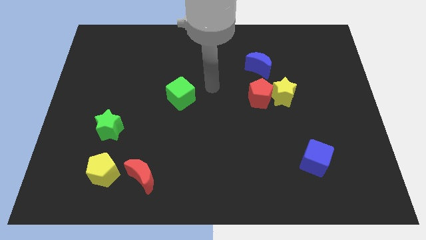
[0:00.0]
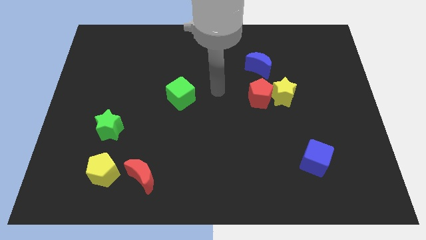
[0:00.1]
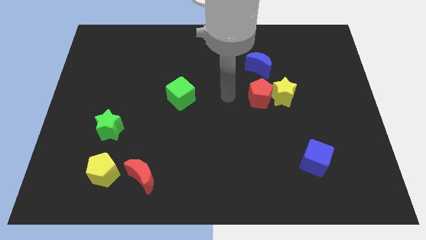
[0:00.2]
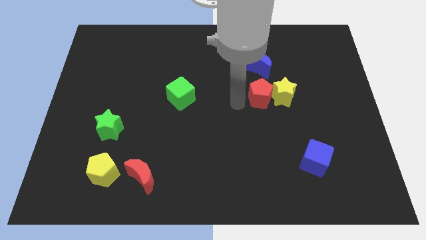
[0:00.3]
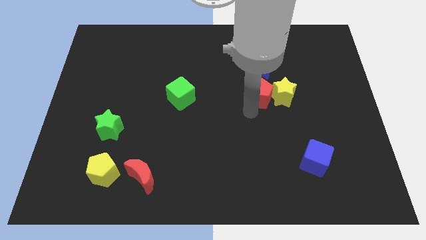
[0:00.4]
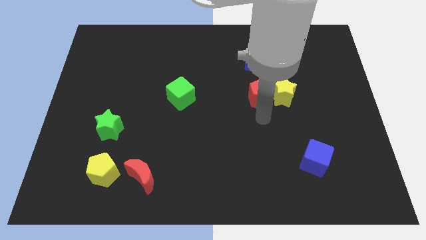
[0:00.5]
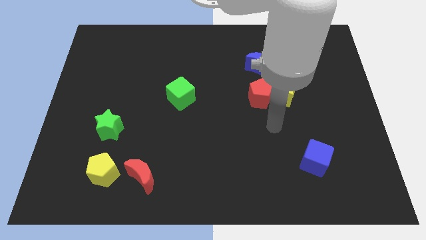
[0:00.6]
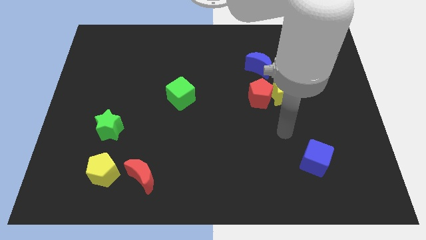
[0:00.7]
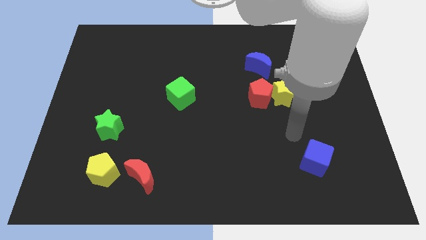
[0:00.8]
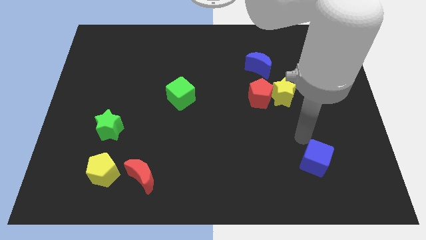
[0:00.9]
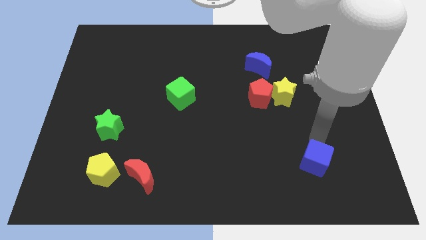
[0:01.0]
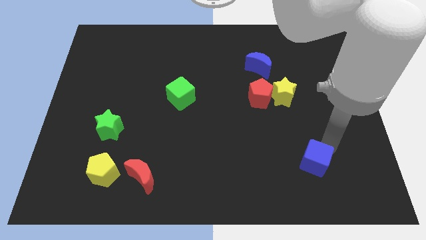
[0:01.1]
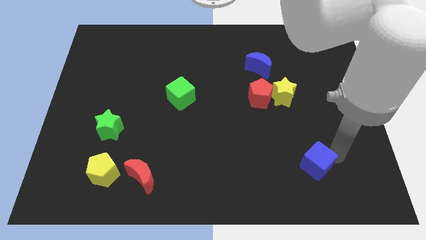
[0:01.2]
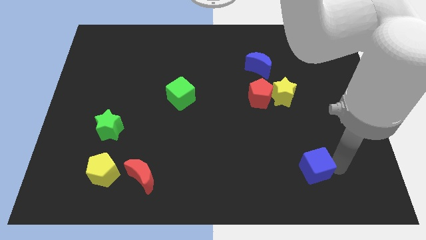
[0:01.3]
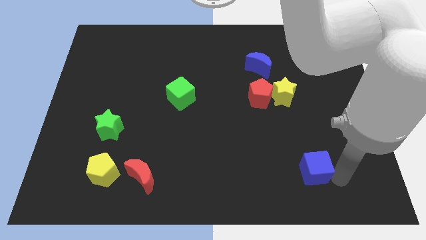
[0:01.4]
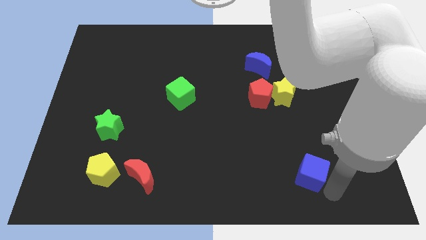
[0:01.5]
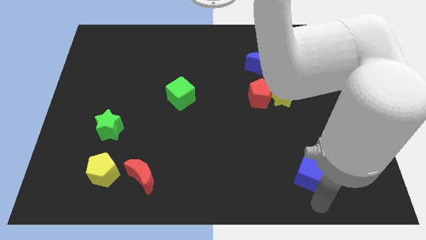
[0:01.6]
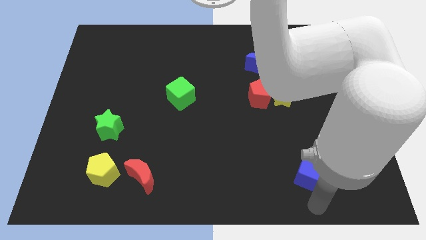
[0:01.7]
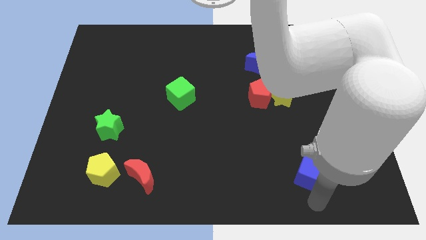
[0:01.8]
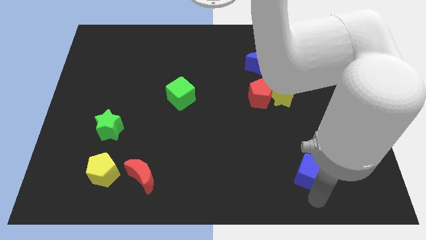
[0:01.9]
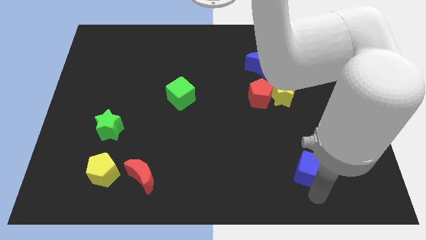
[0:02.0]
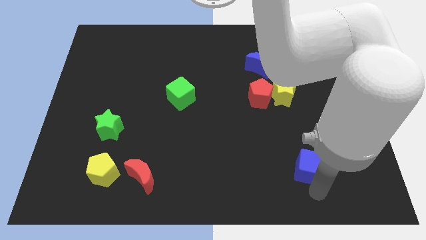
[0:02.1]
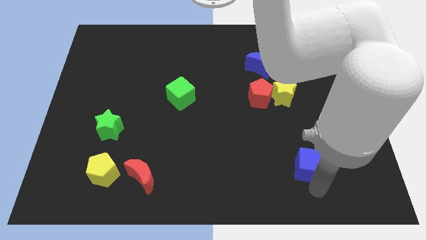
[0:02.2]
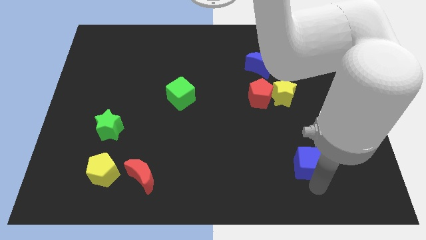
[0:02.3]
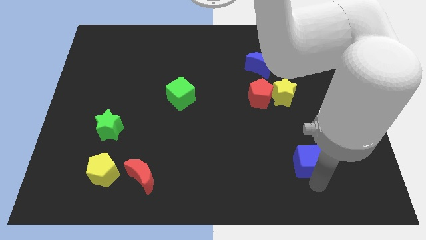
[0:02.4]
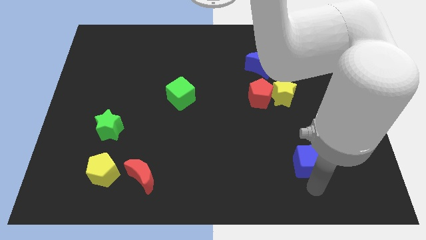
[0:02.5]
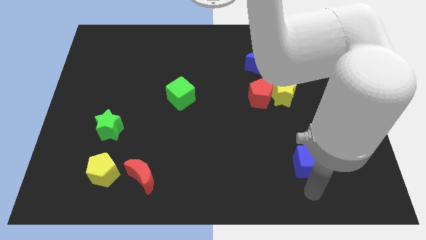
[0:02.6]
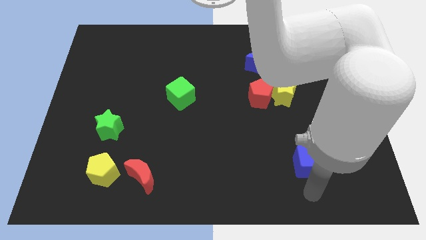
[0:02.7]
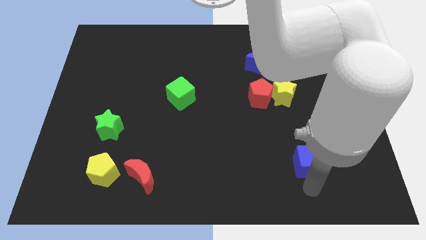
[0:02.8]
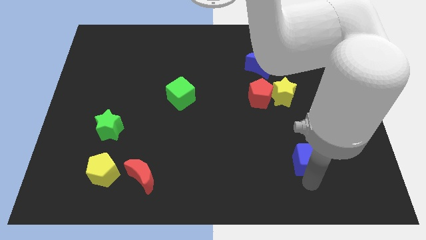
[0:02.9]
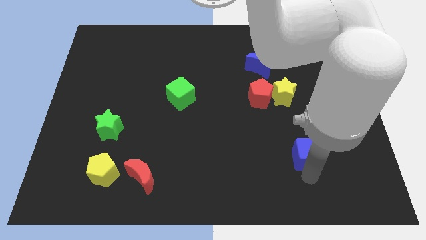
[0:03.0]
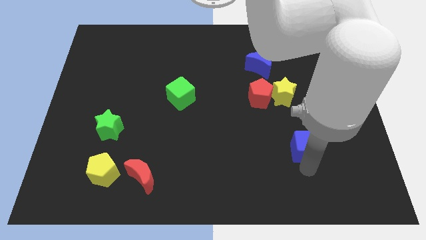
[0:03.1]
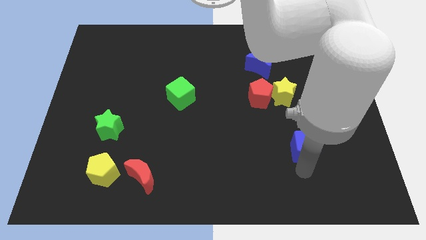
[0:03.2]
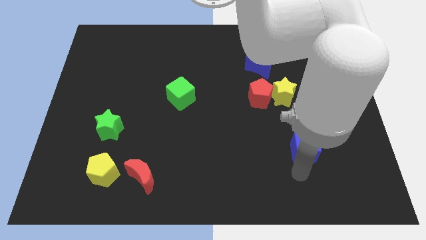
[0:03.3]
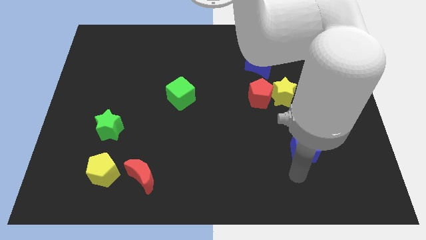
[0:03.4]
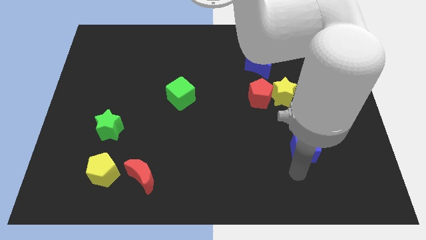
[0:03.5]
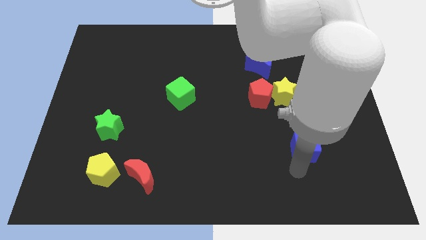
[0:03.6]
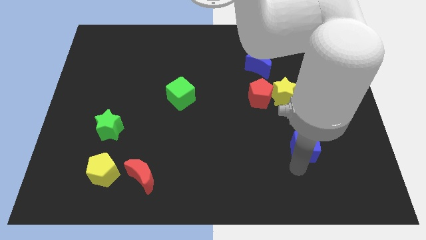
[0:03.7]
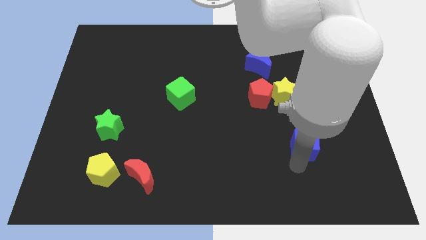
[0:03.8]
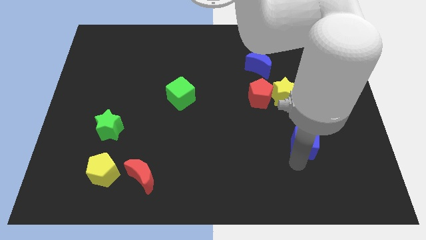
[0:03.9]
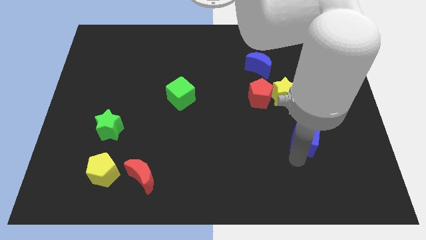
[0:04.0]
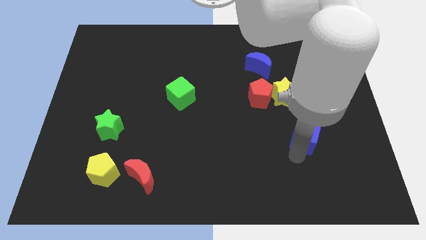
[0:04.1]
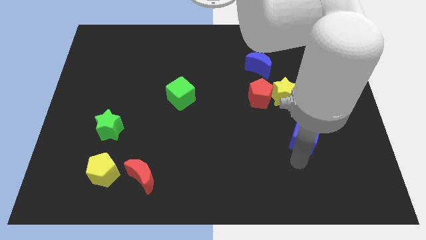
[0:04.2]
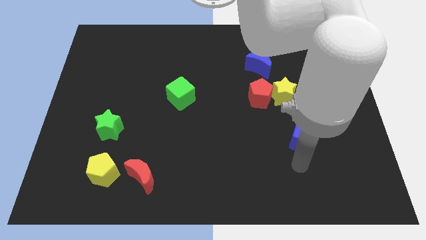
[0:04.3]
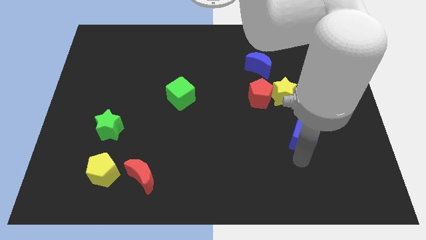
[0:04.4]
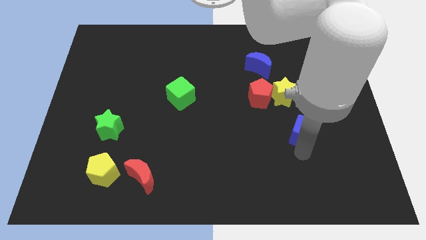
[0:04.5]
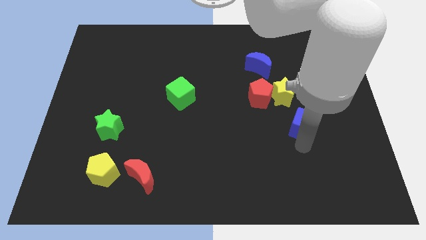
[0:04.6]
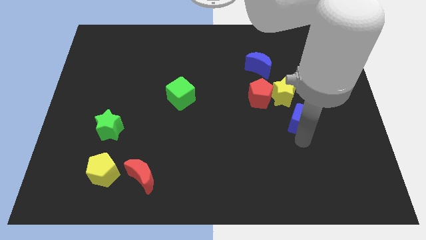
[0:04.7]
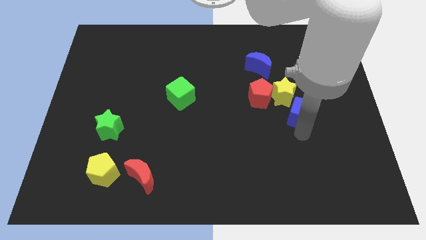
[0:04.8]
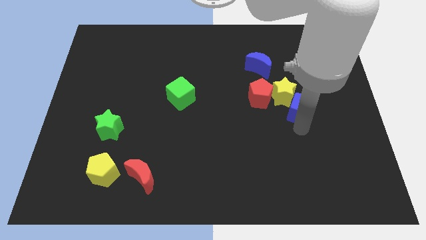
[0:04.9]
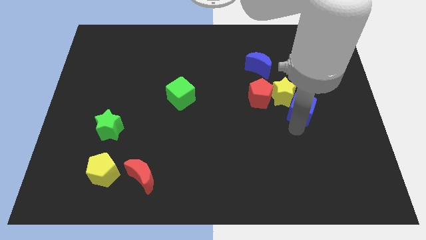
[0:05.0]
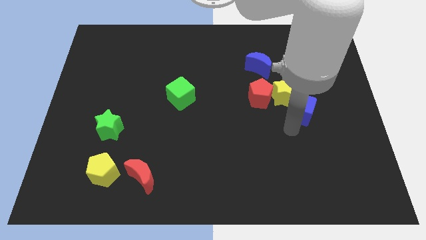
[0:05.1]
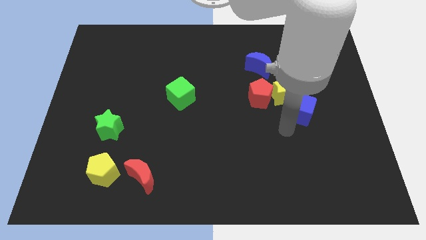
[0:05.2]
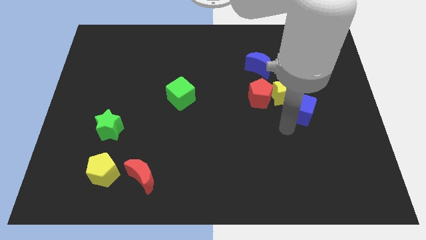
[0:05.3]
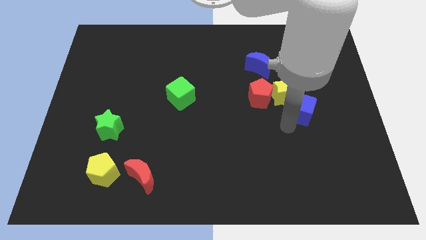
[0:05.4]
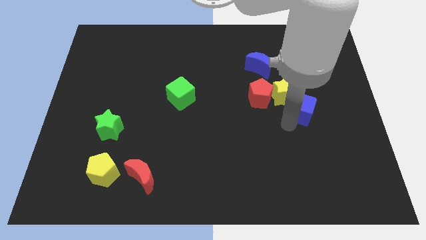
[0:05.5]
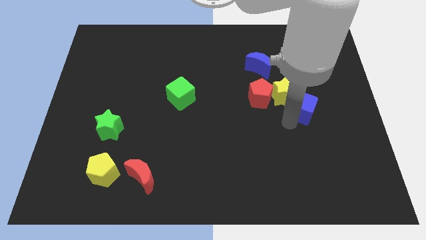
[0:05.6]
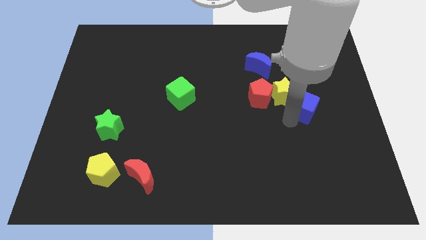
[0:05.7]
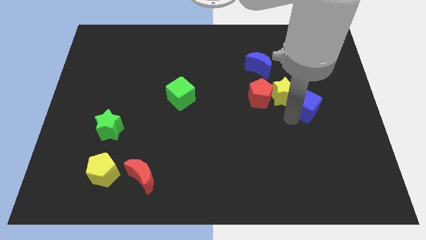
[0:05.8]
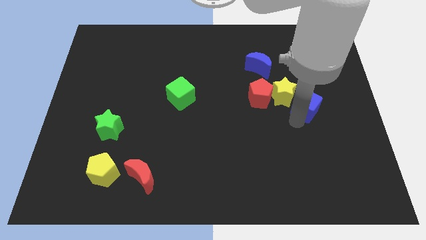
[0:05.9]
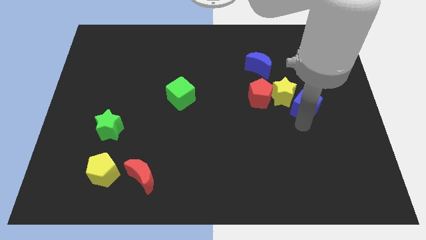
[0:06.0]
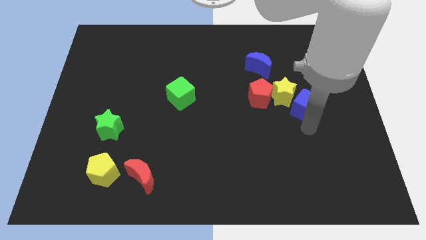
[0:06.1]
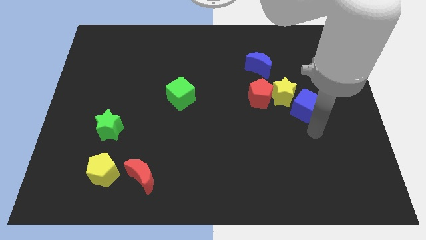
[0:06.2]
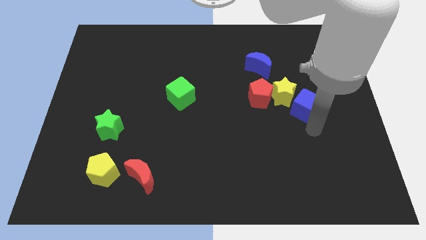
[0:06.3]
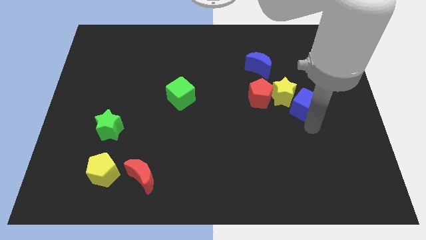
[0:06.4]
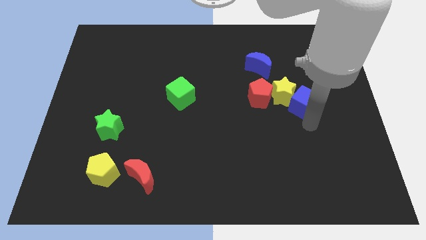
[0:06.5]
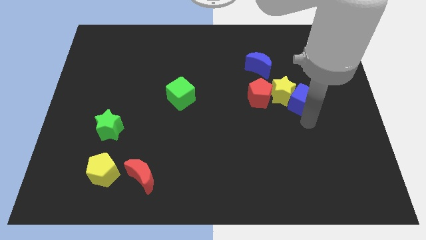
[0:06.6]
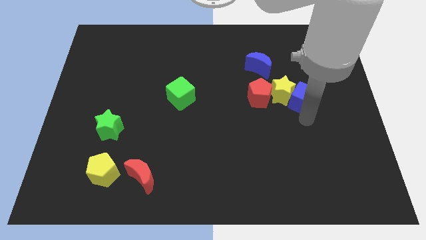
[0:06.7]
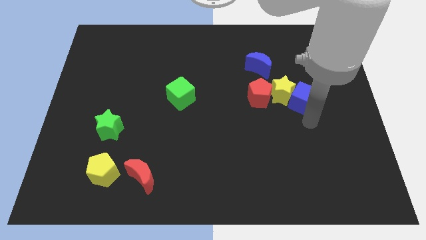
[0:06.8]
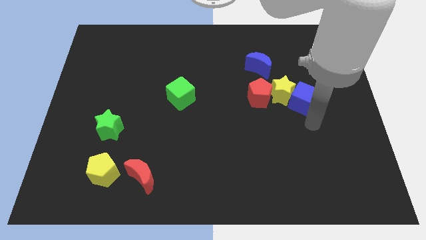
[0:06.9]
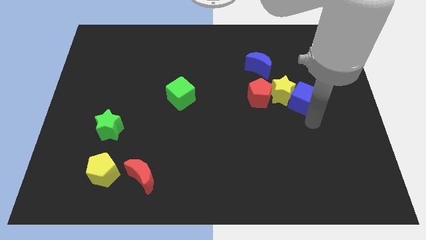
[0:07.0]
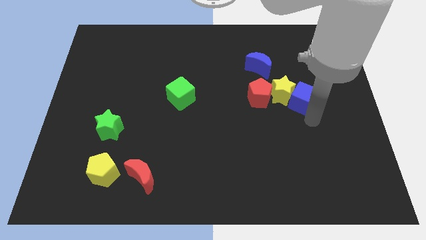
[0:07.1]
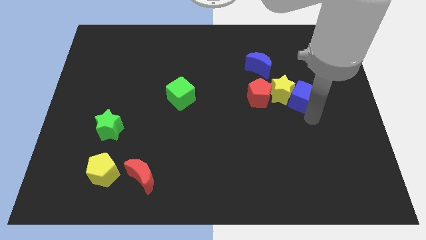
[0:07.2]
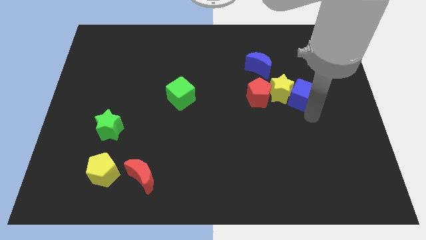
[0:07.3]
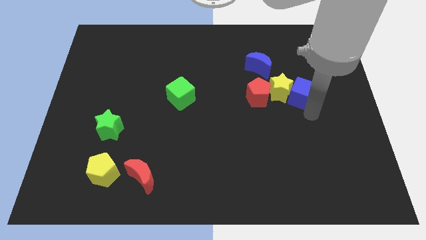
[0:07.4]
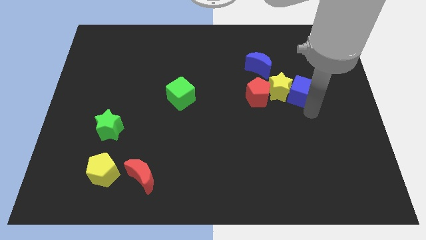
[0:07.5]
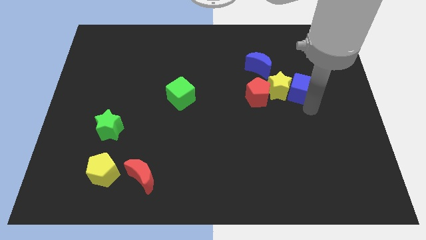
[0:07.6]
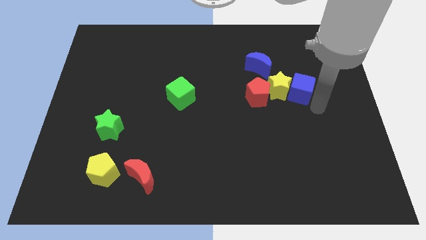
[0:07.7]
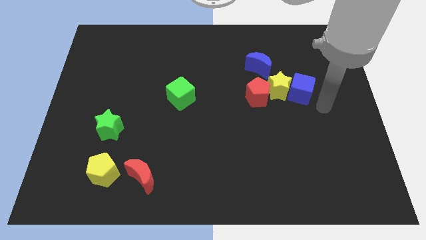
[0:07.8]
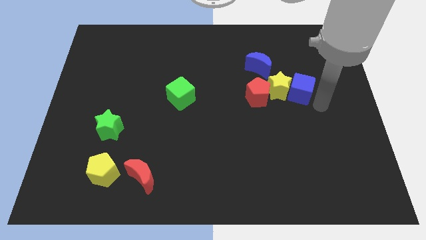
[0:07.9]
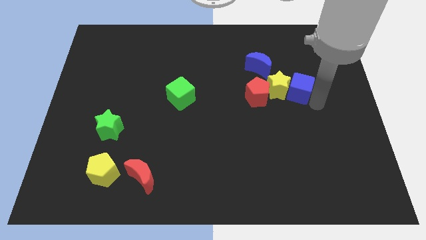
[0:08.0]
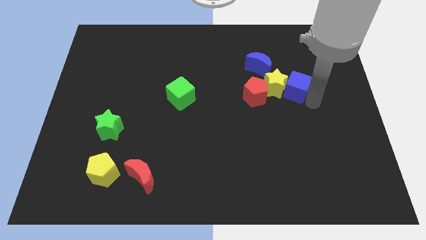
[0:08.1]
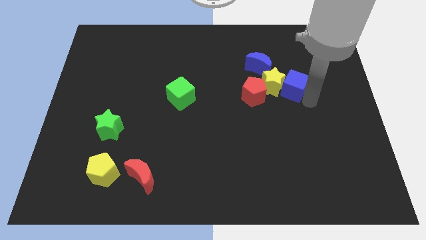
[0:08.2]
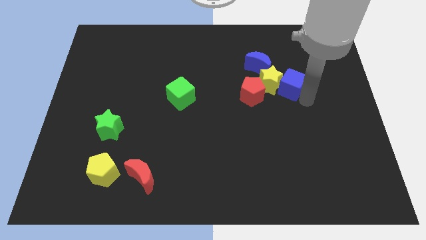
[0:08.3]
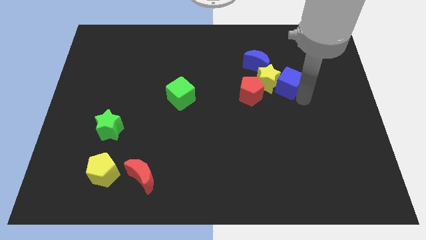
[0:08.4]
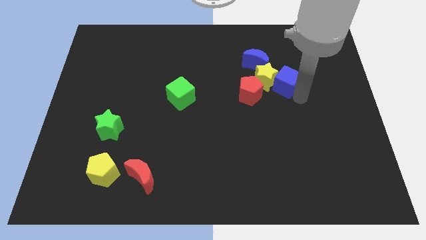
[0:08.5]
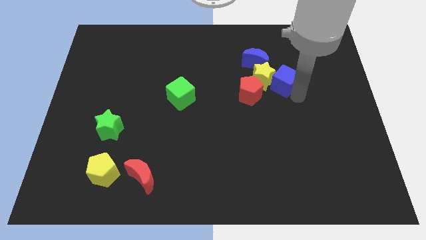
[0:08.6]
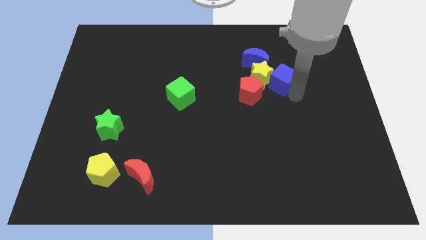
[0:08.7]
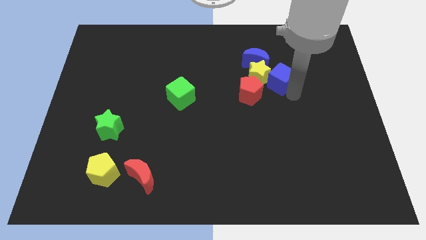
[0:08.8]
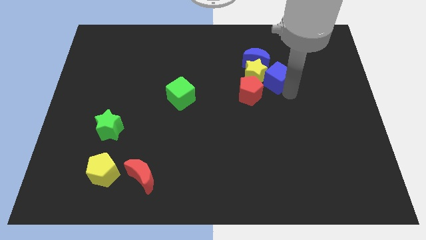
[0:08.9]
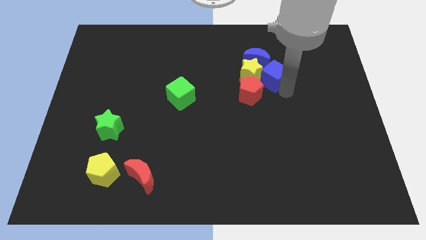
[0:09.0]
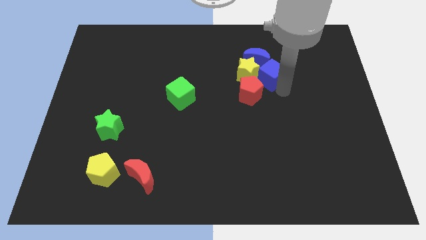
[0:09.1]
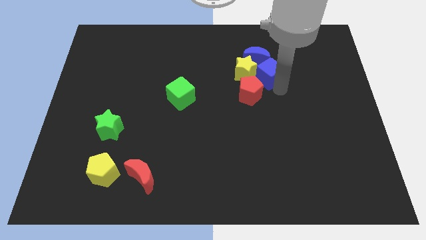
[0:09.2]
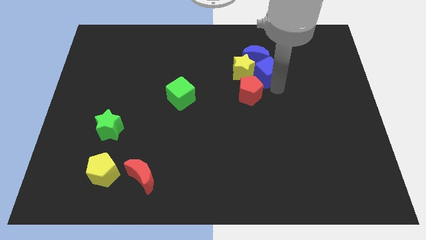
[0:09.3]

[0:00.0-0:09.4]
put the blue cube towards the blue moon
